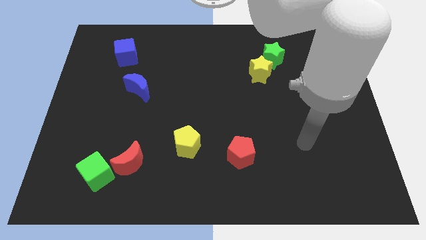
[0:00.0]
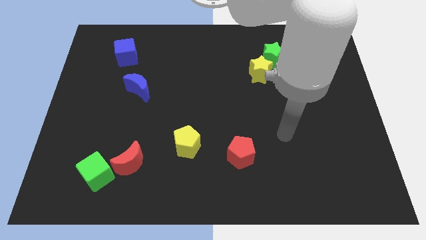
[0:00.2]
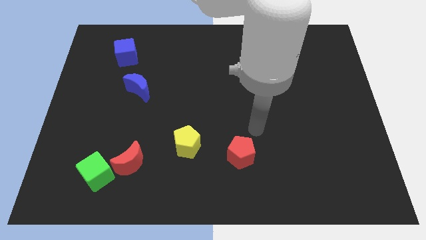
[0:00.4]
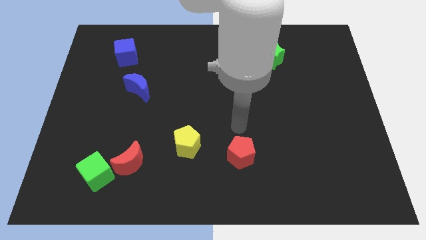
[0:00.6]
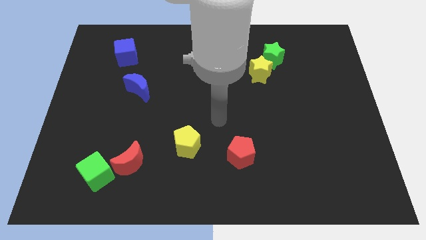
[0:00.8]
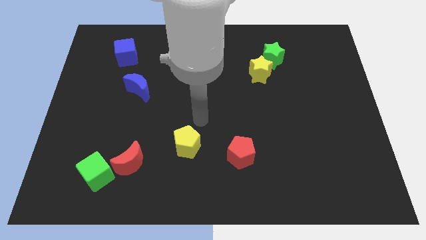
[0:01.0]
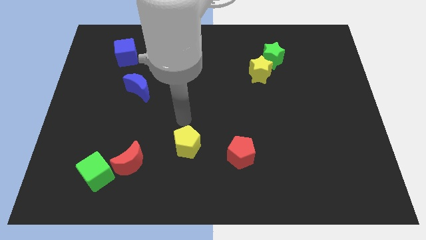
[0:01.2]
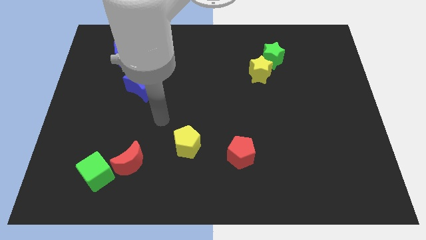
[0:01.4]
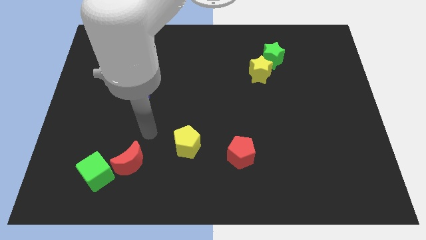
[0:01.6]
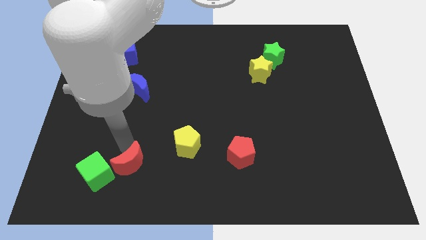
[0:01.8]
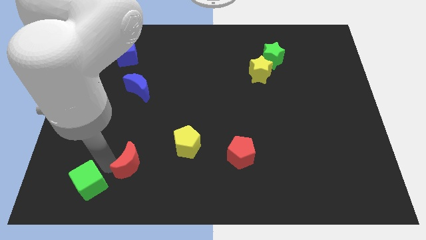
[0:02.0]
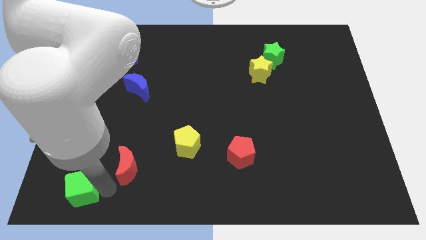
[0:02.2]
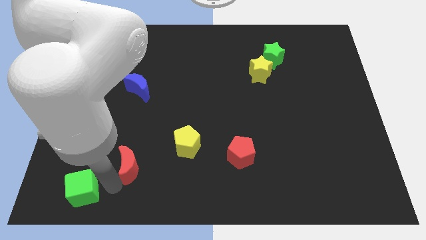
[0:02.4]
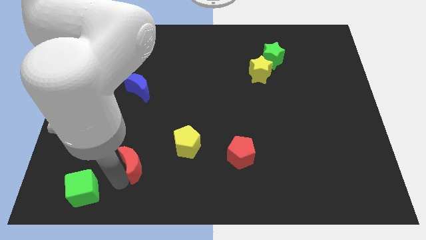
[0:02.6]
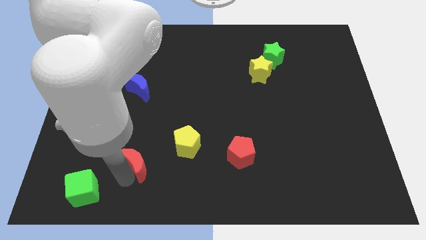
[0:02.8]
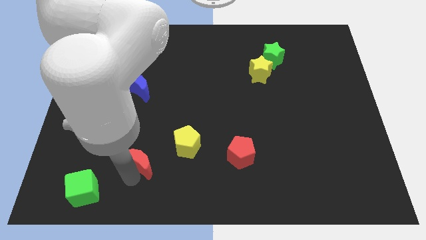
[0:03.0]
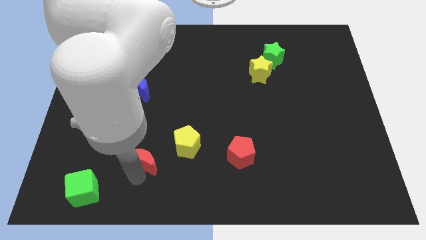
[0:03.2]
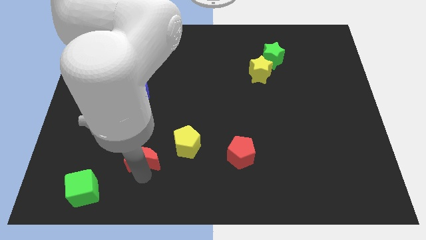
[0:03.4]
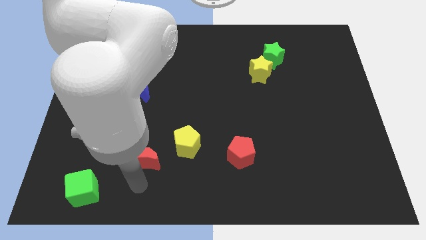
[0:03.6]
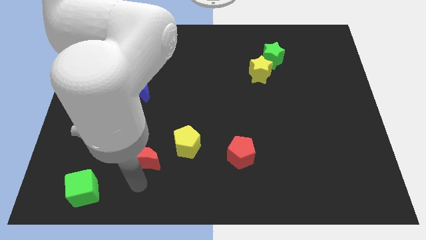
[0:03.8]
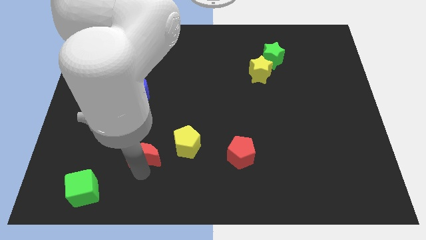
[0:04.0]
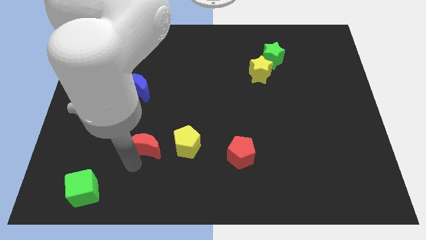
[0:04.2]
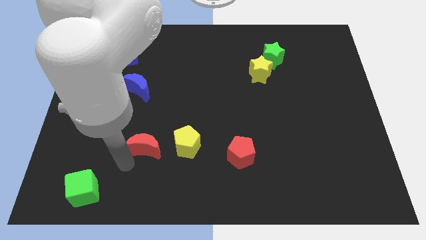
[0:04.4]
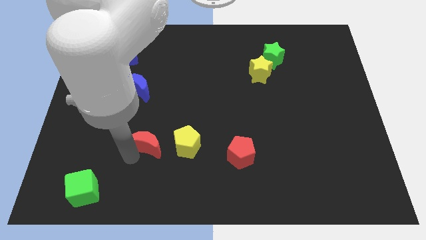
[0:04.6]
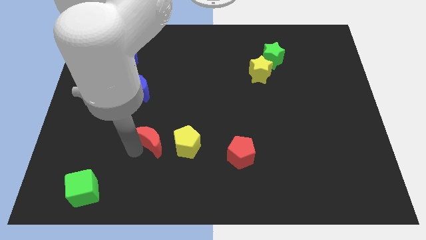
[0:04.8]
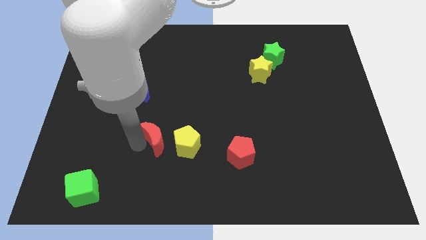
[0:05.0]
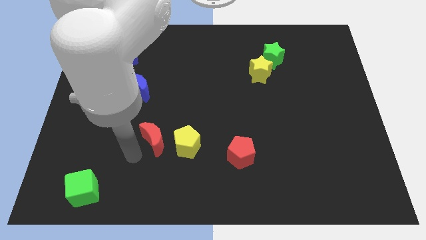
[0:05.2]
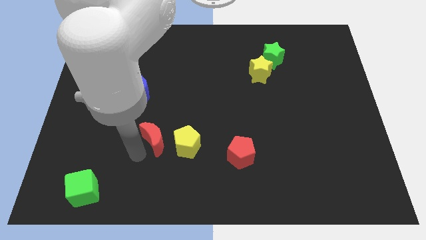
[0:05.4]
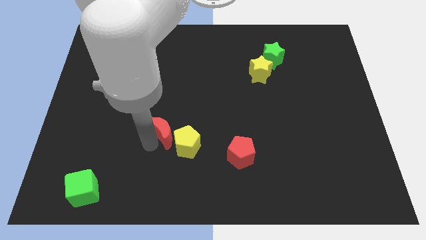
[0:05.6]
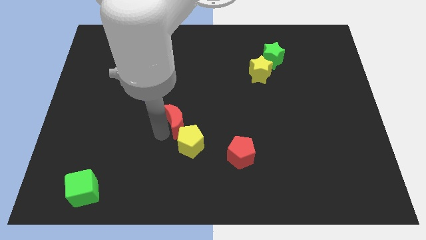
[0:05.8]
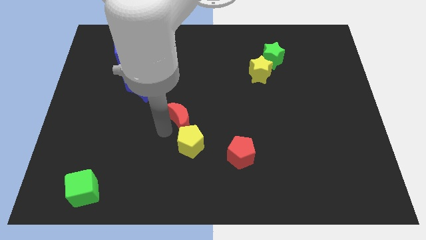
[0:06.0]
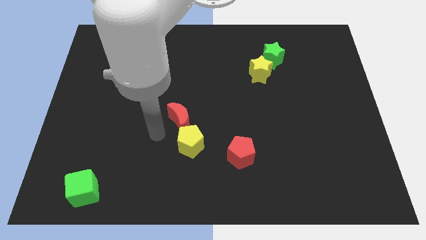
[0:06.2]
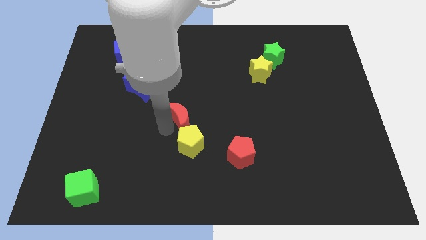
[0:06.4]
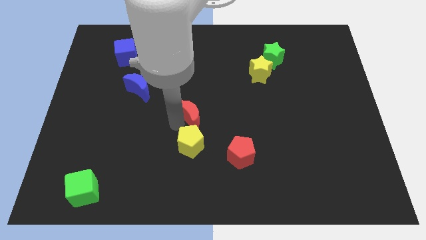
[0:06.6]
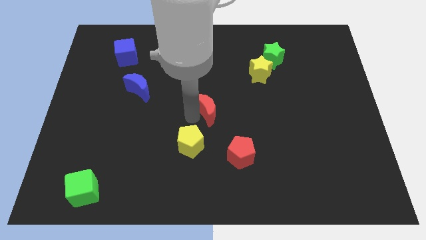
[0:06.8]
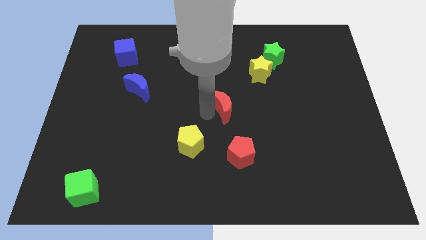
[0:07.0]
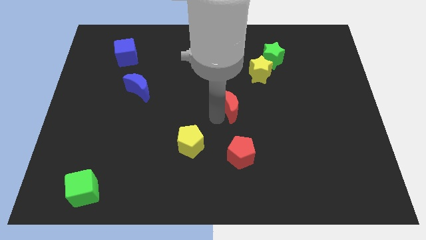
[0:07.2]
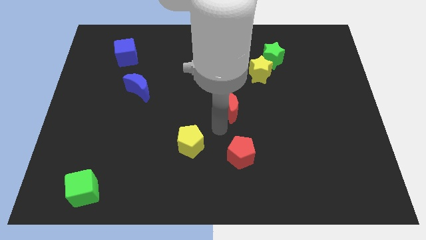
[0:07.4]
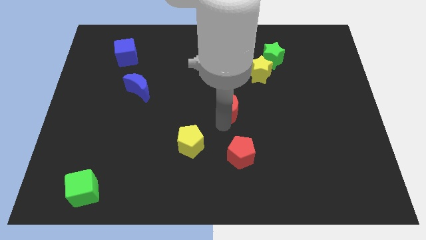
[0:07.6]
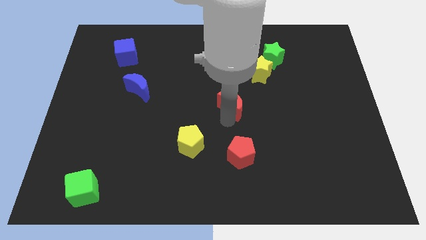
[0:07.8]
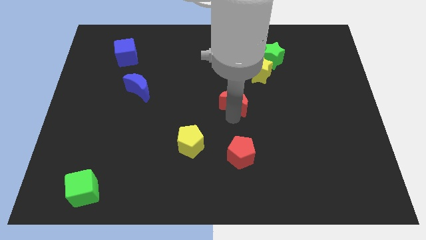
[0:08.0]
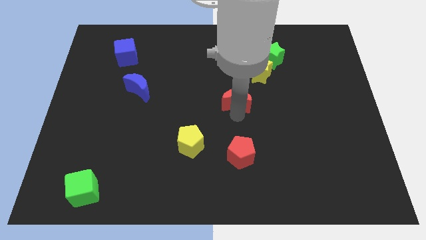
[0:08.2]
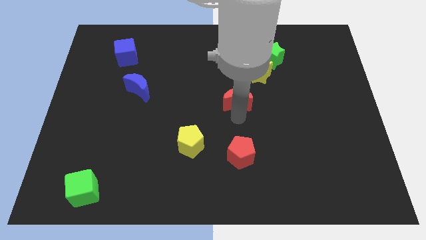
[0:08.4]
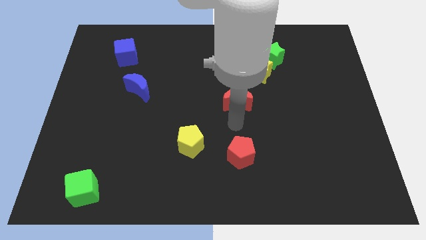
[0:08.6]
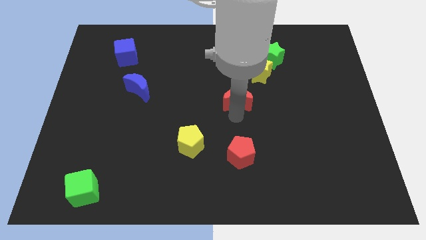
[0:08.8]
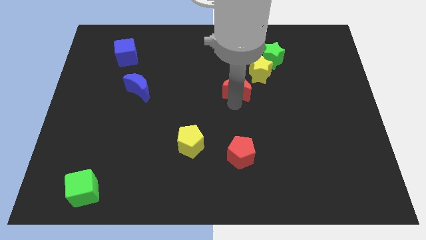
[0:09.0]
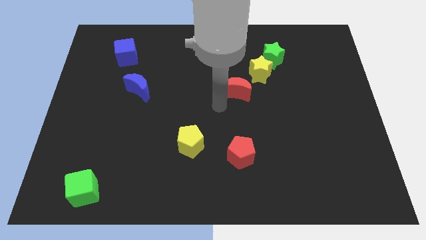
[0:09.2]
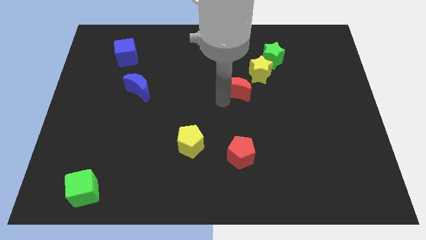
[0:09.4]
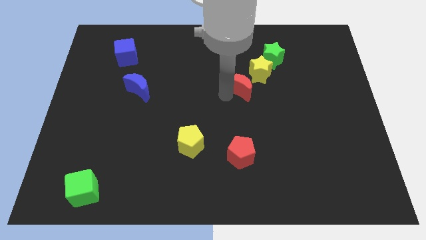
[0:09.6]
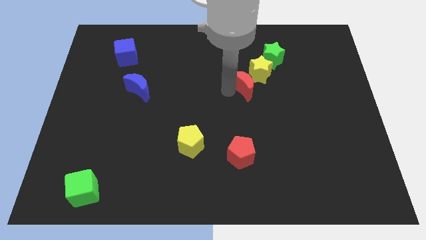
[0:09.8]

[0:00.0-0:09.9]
slide the red moon towards the yellow star

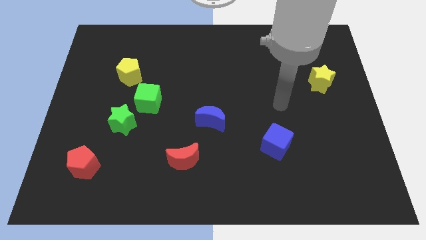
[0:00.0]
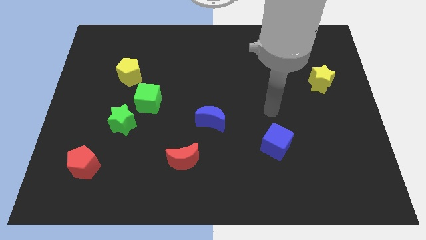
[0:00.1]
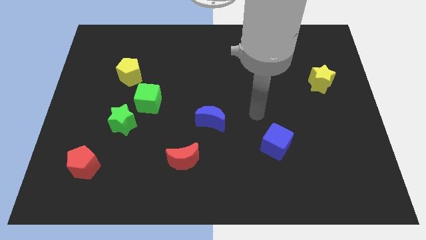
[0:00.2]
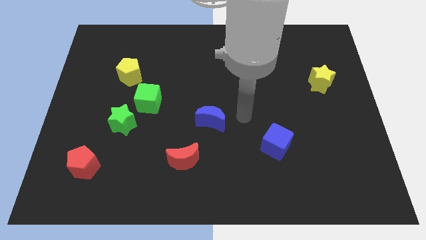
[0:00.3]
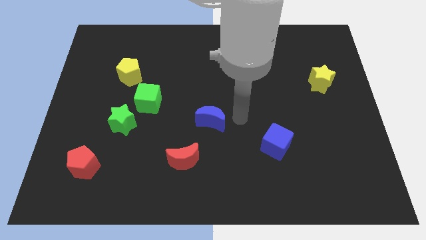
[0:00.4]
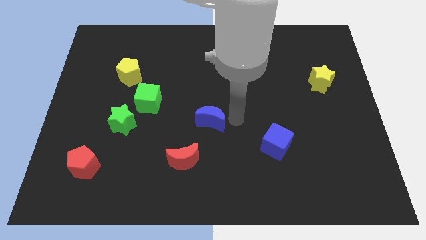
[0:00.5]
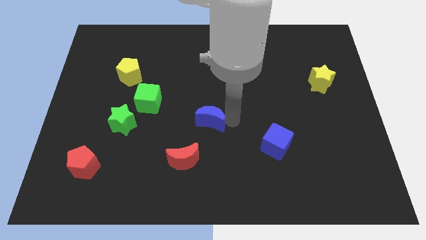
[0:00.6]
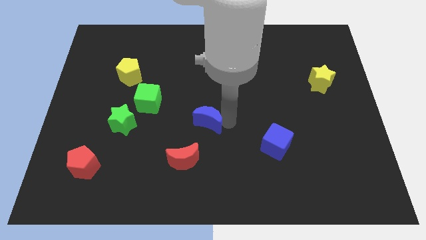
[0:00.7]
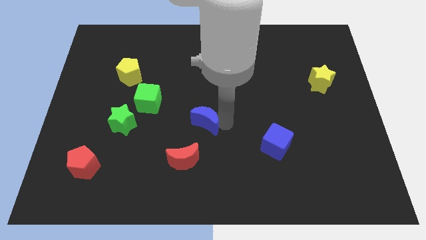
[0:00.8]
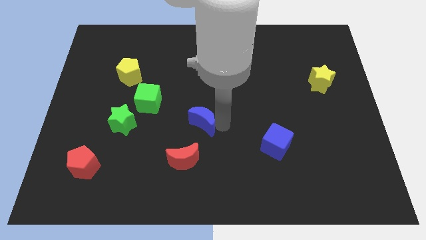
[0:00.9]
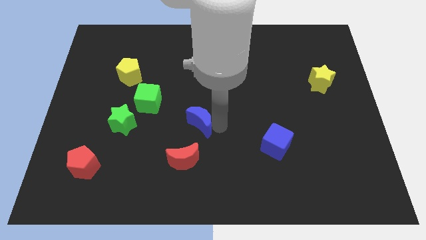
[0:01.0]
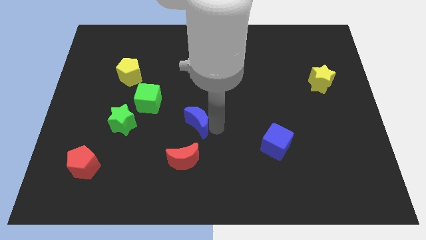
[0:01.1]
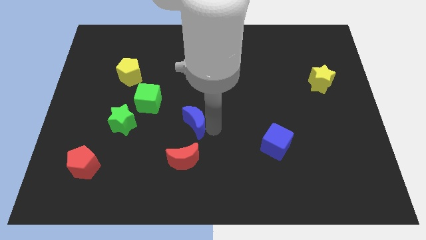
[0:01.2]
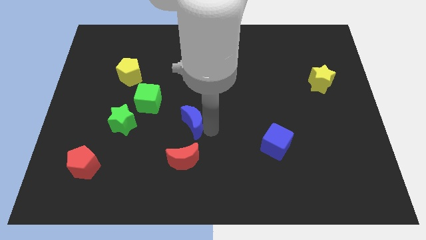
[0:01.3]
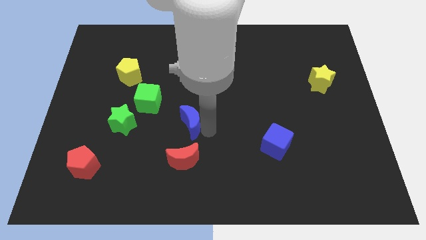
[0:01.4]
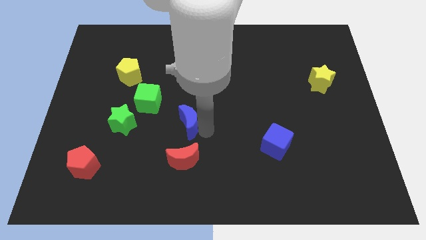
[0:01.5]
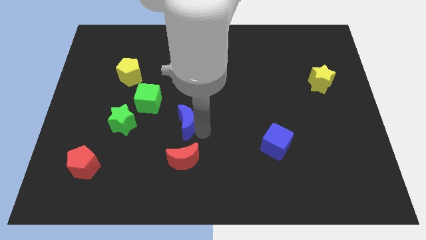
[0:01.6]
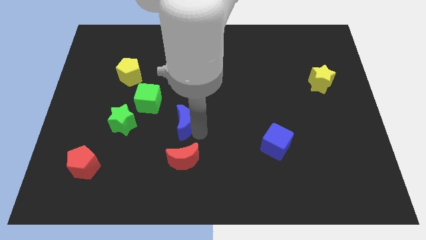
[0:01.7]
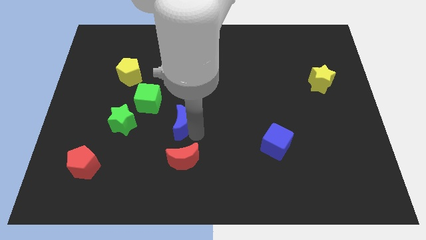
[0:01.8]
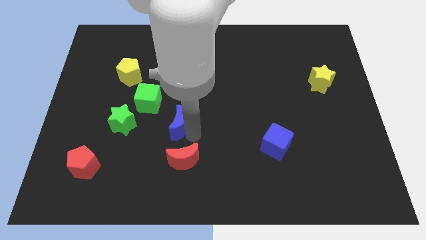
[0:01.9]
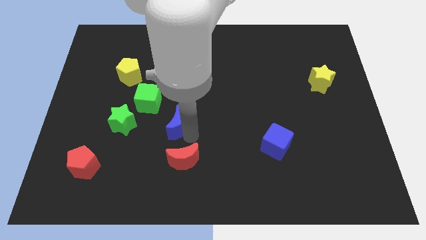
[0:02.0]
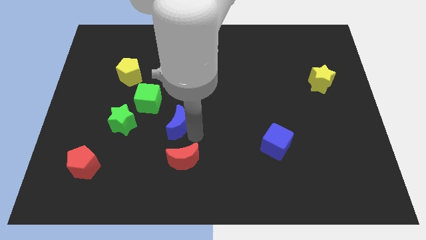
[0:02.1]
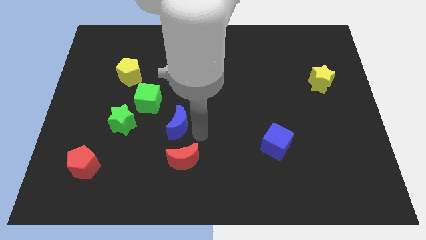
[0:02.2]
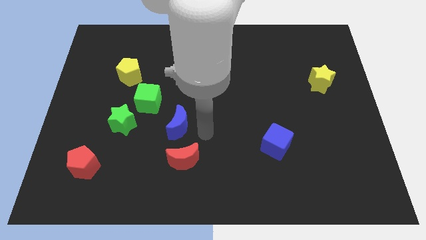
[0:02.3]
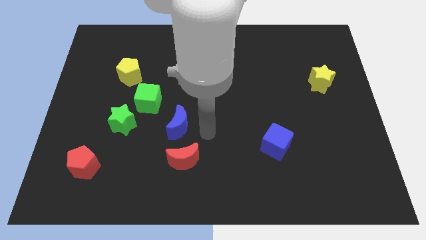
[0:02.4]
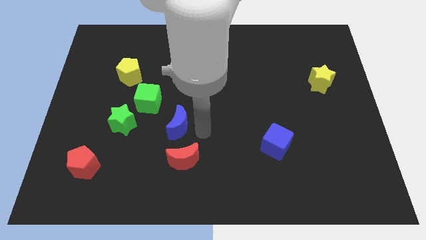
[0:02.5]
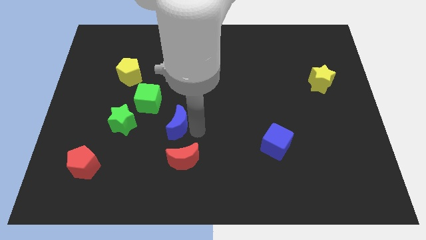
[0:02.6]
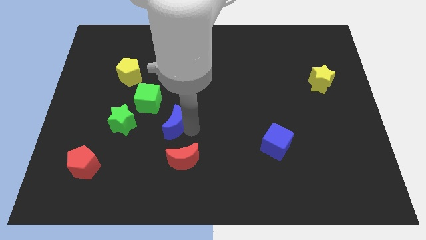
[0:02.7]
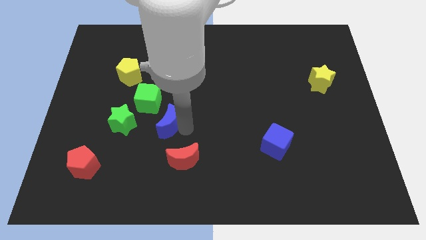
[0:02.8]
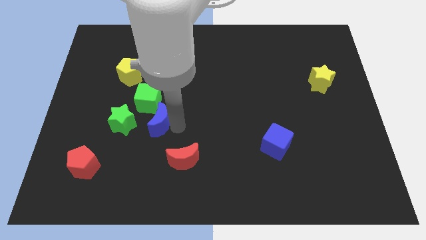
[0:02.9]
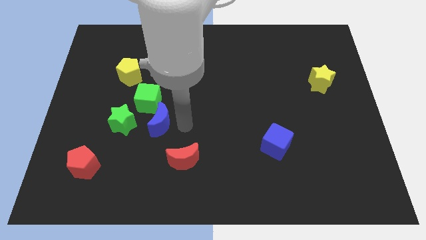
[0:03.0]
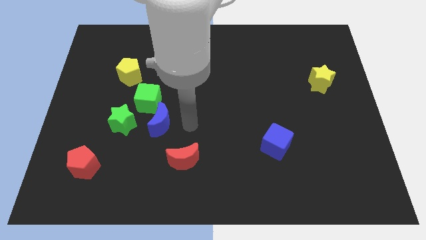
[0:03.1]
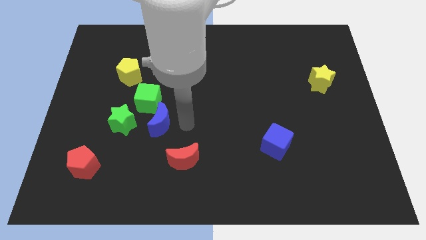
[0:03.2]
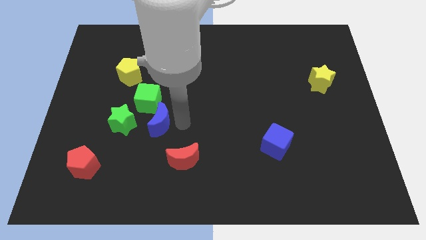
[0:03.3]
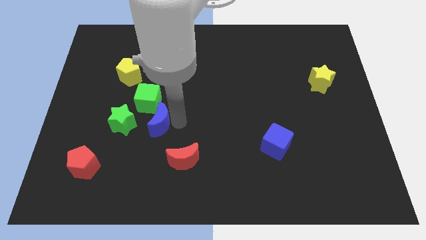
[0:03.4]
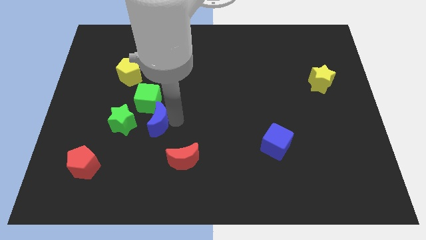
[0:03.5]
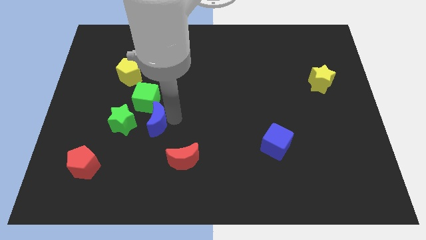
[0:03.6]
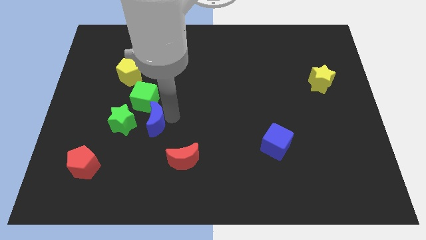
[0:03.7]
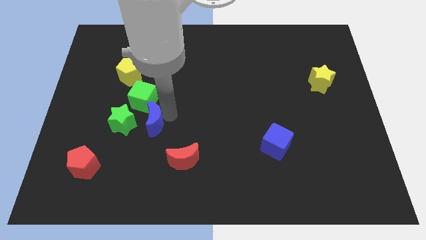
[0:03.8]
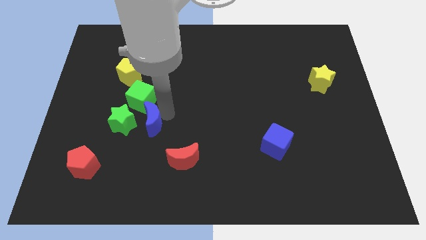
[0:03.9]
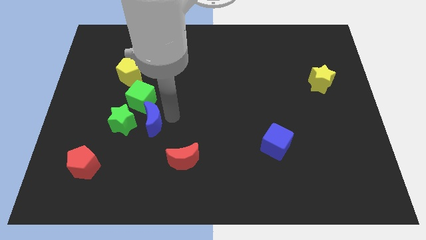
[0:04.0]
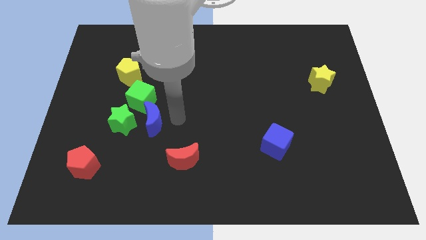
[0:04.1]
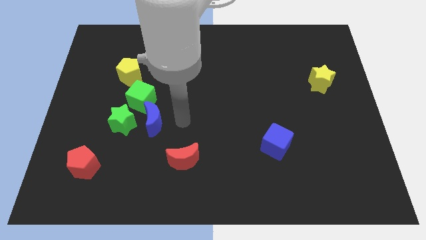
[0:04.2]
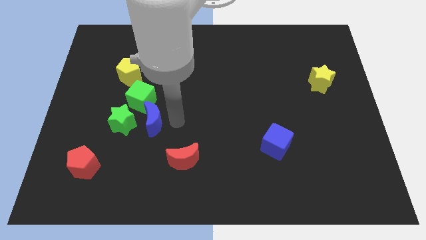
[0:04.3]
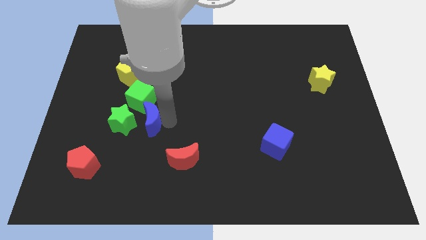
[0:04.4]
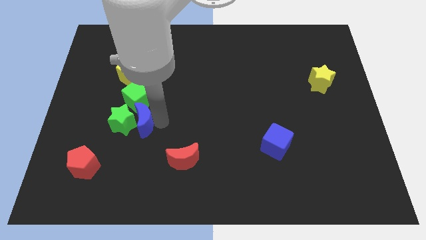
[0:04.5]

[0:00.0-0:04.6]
push the blue moon close to the green star
